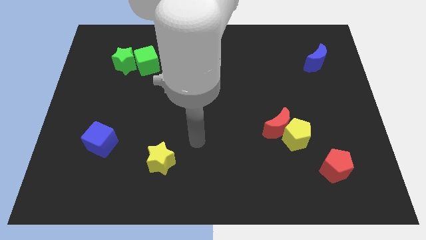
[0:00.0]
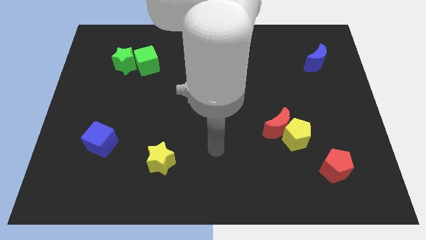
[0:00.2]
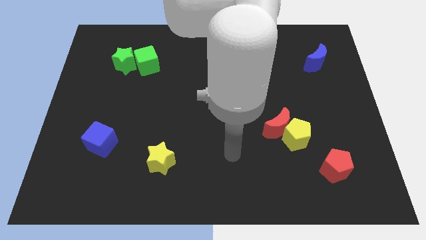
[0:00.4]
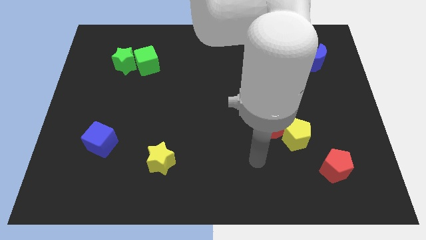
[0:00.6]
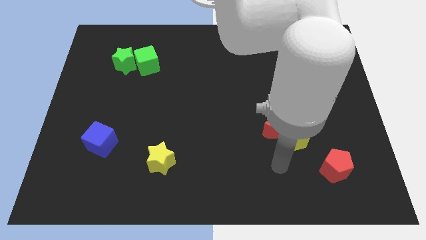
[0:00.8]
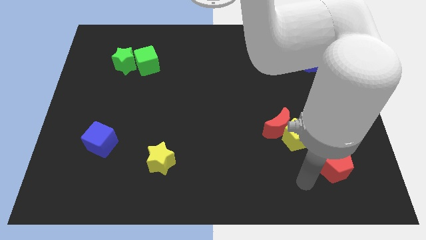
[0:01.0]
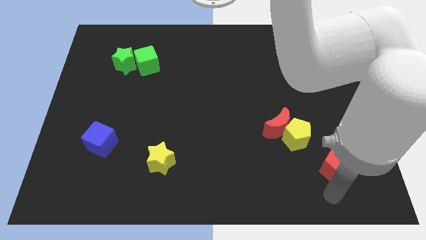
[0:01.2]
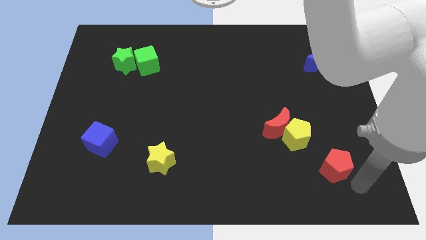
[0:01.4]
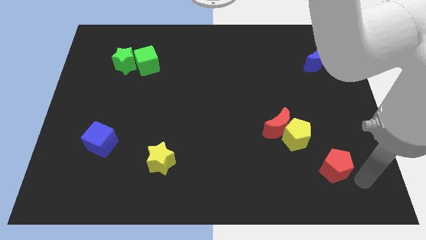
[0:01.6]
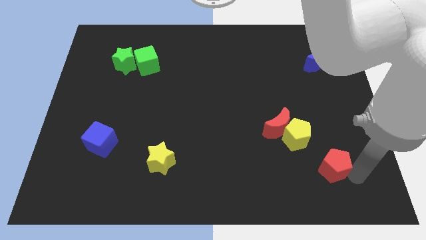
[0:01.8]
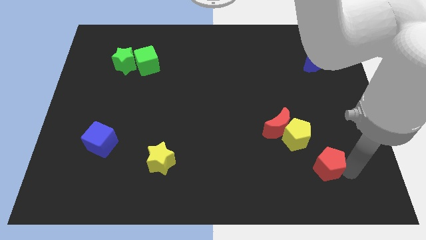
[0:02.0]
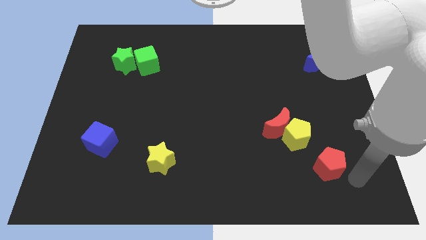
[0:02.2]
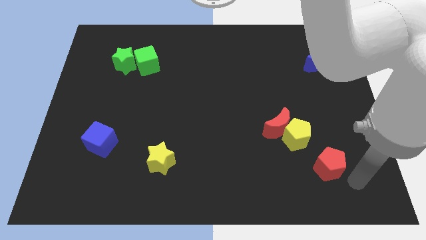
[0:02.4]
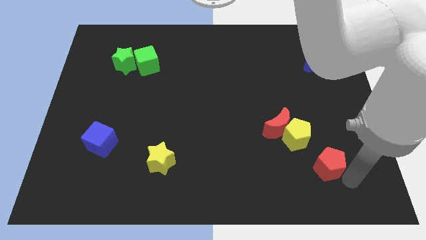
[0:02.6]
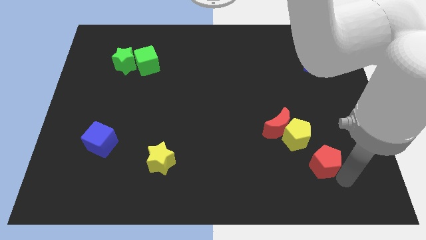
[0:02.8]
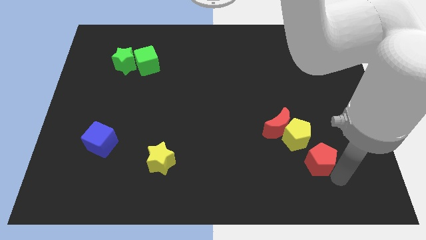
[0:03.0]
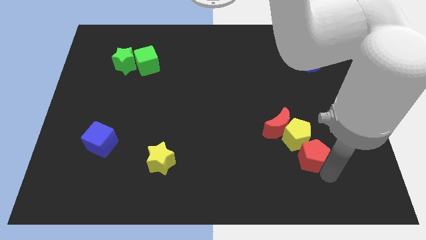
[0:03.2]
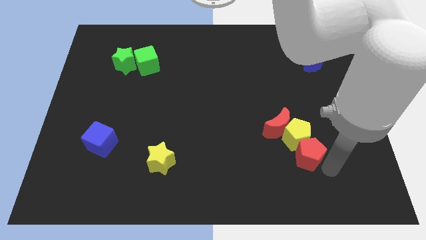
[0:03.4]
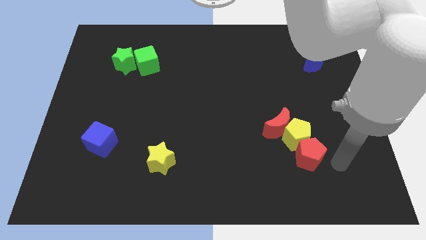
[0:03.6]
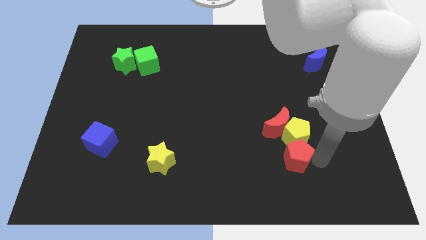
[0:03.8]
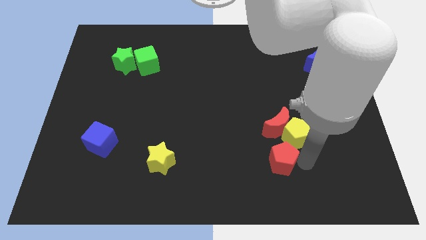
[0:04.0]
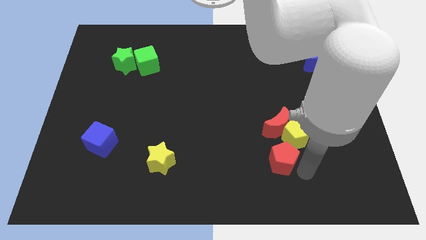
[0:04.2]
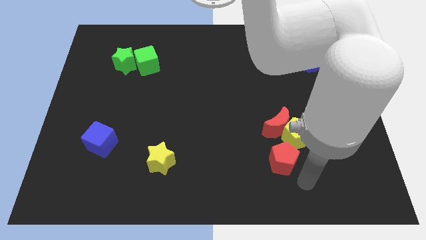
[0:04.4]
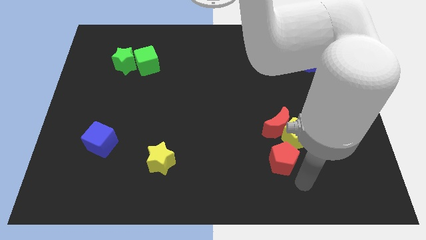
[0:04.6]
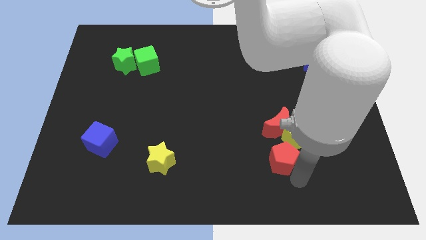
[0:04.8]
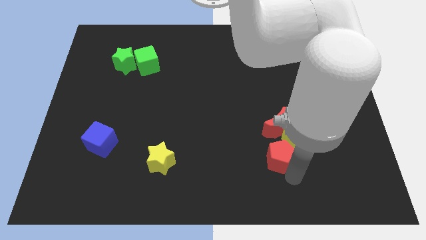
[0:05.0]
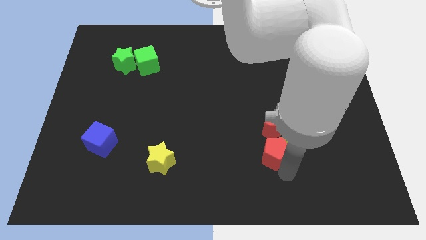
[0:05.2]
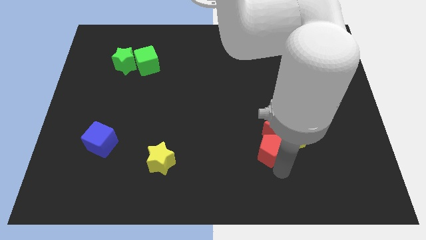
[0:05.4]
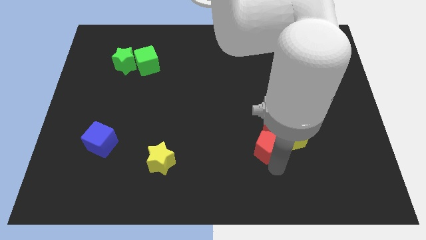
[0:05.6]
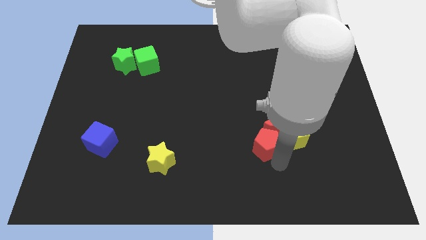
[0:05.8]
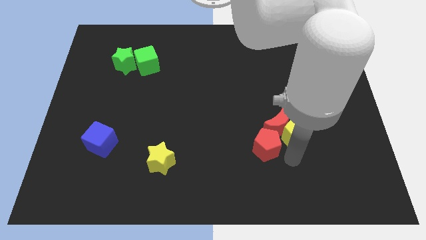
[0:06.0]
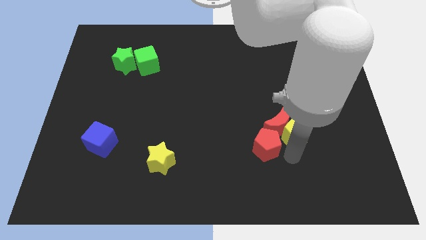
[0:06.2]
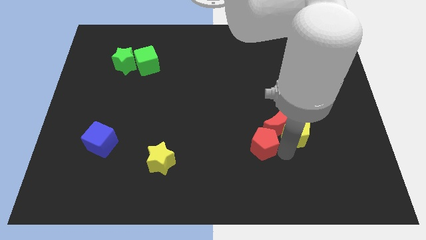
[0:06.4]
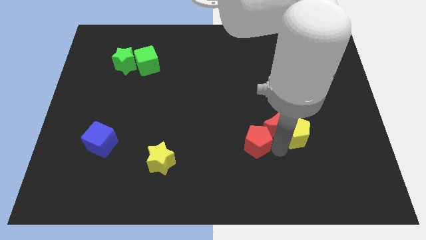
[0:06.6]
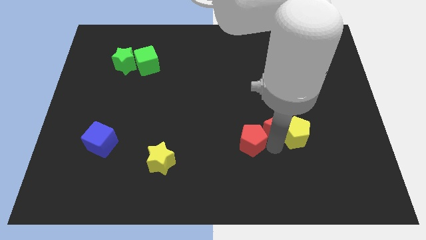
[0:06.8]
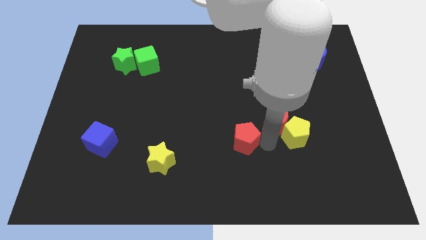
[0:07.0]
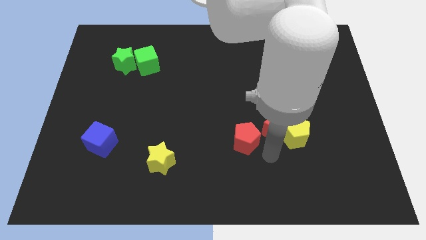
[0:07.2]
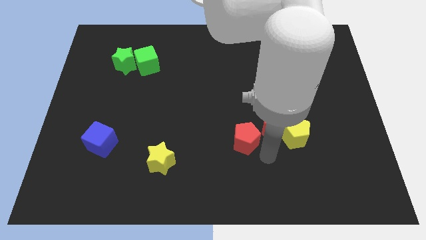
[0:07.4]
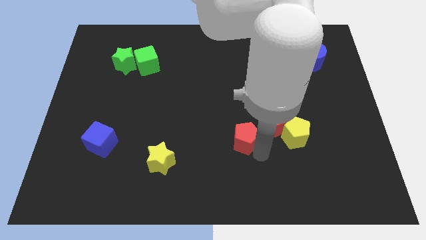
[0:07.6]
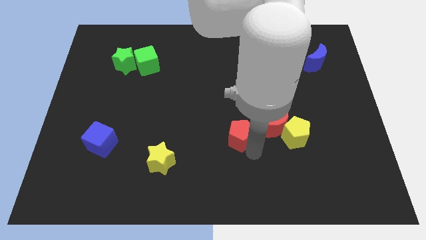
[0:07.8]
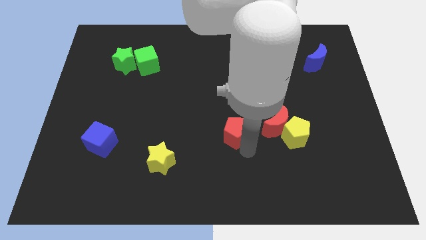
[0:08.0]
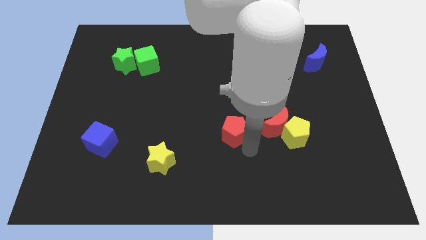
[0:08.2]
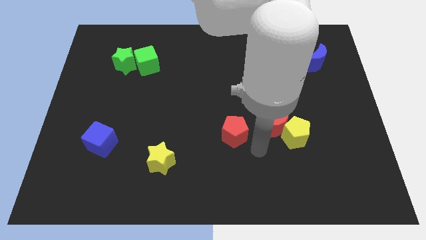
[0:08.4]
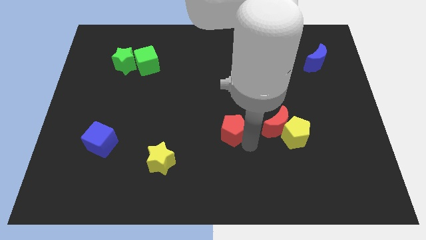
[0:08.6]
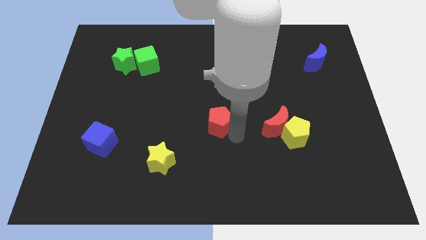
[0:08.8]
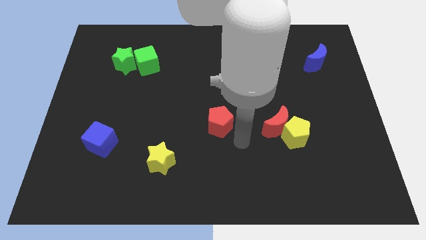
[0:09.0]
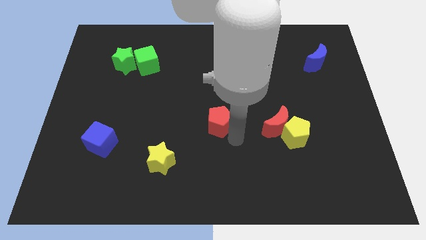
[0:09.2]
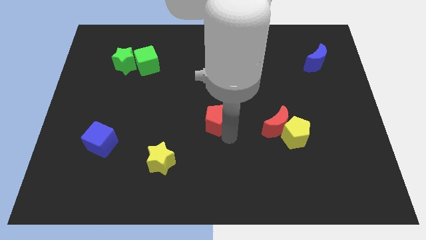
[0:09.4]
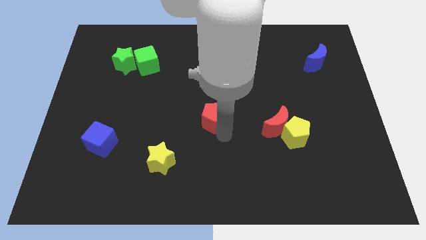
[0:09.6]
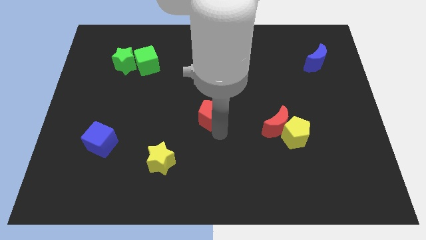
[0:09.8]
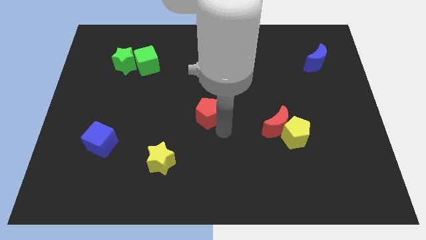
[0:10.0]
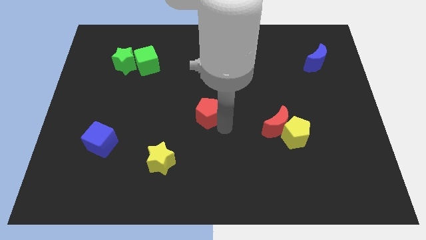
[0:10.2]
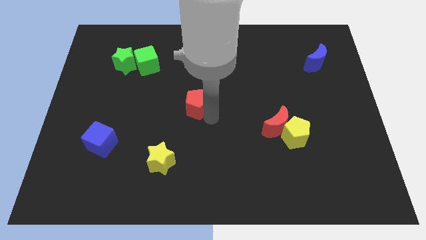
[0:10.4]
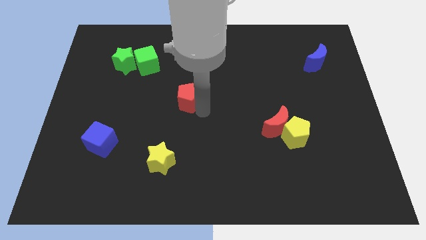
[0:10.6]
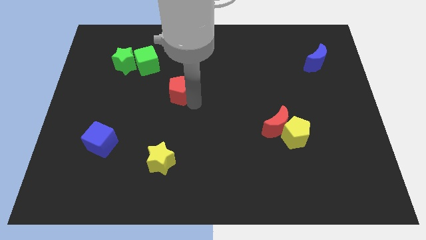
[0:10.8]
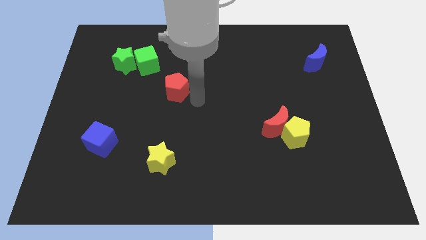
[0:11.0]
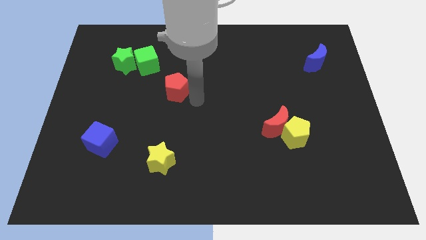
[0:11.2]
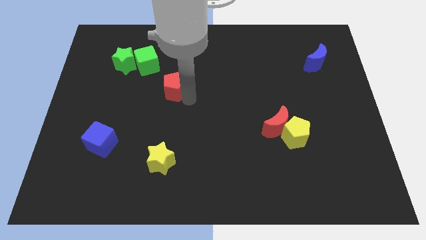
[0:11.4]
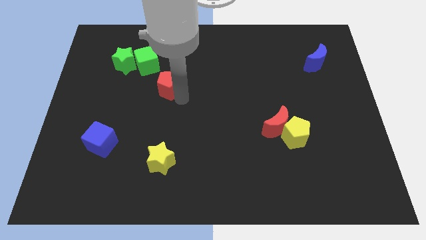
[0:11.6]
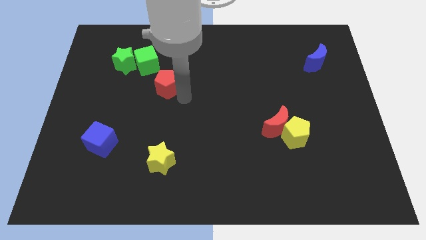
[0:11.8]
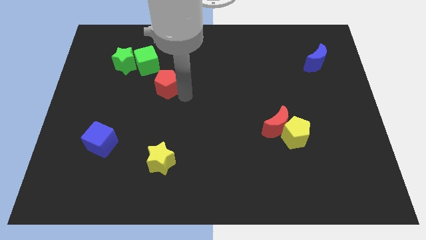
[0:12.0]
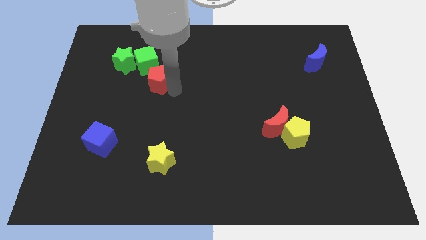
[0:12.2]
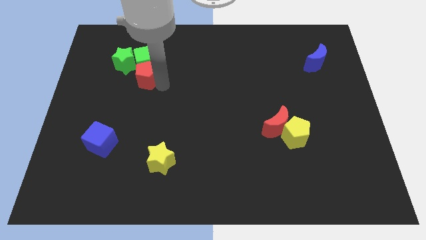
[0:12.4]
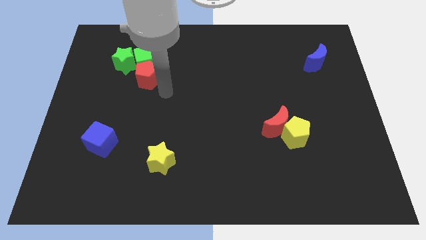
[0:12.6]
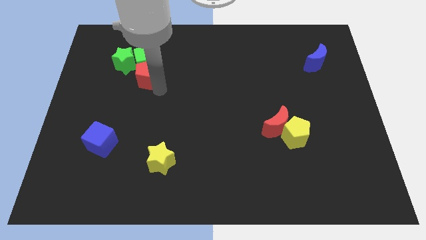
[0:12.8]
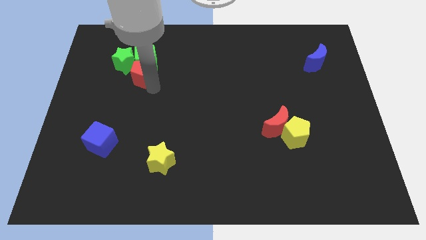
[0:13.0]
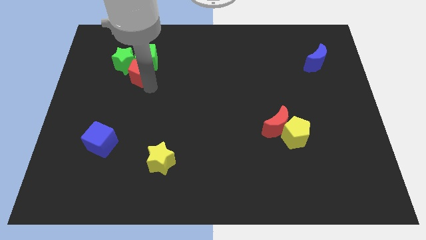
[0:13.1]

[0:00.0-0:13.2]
push the red pentagon next to the green star

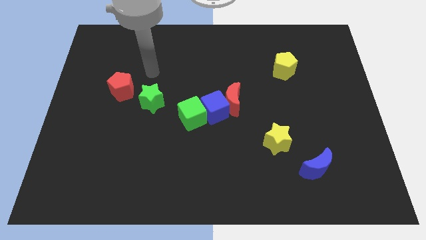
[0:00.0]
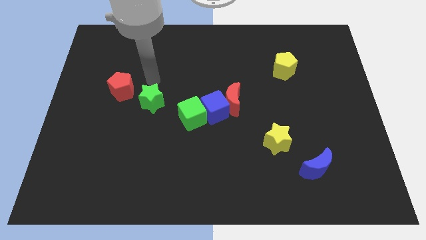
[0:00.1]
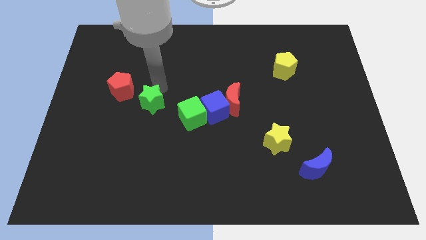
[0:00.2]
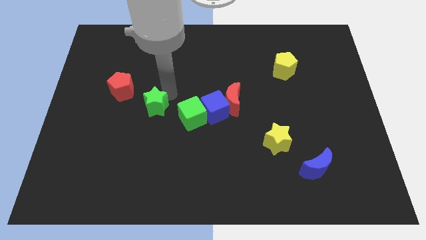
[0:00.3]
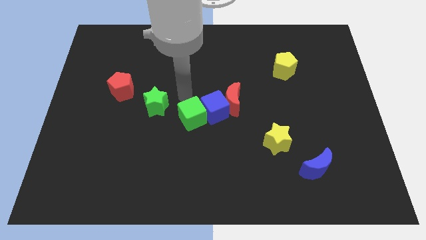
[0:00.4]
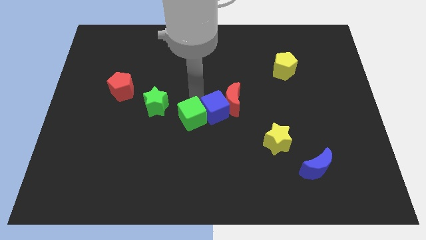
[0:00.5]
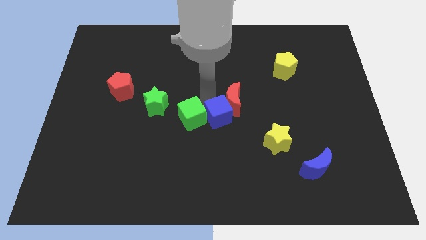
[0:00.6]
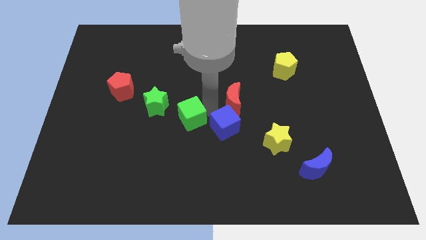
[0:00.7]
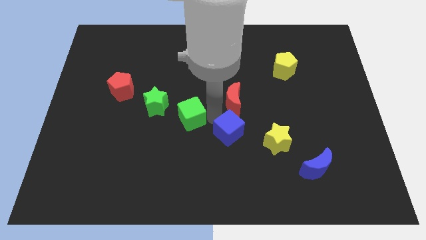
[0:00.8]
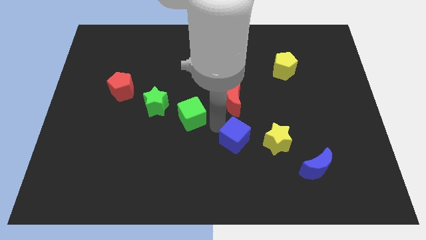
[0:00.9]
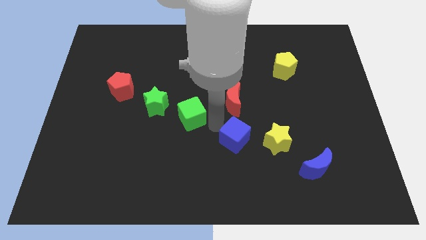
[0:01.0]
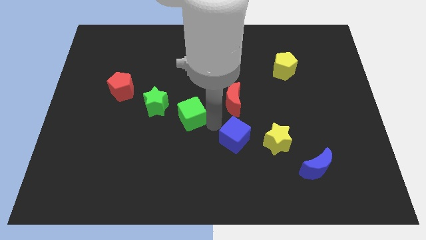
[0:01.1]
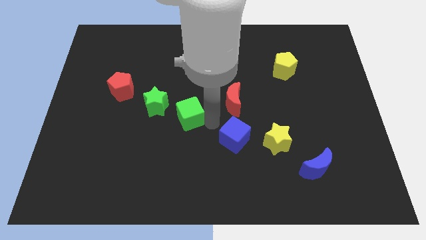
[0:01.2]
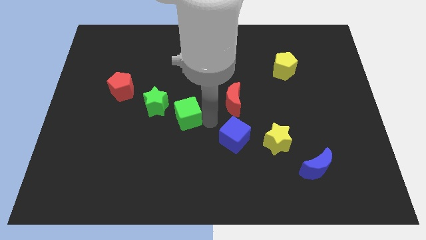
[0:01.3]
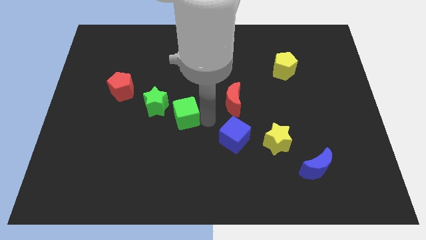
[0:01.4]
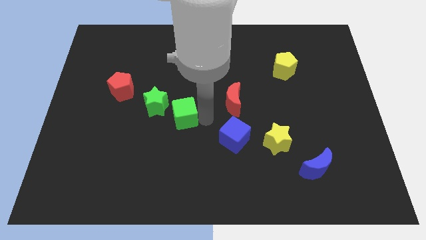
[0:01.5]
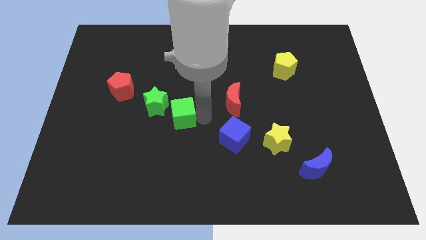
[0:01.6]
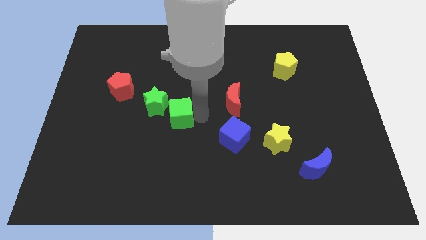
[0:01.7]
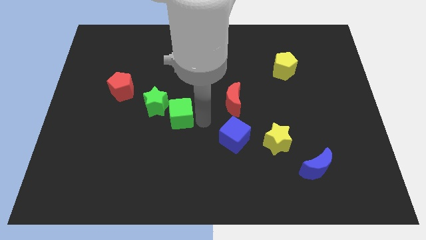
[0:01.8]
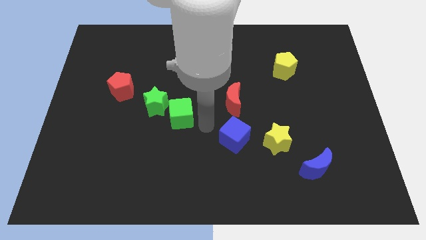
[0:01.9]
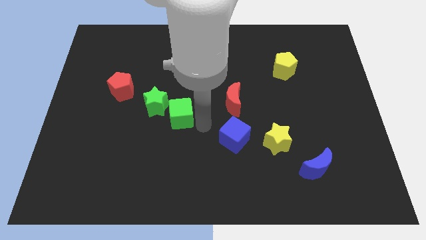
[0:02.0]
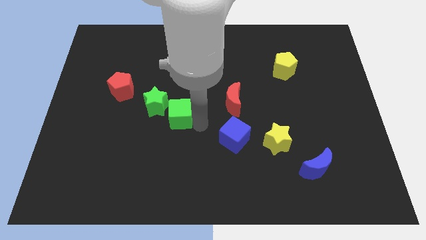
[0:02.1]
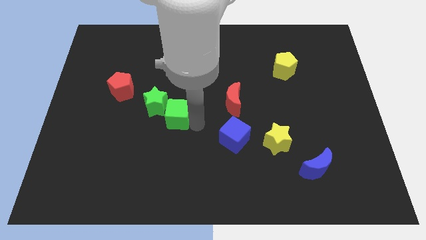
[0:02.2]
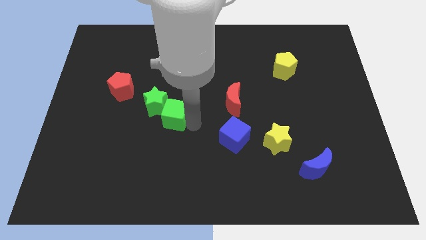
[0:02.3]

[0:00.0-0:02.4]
push the green cube close to the green star
